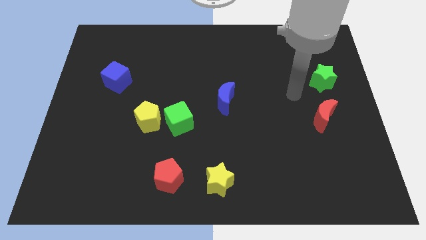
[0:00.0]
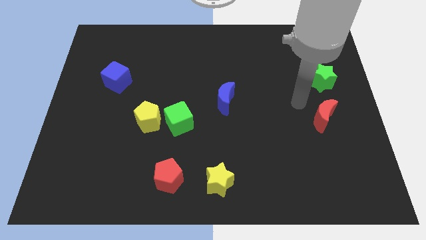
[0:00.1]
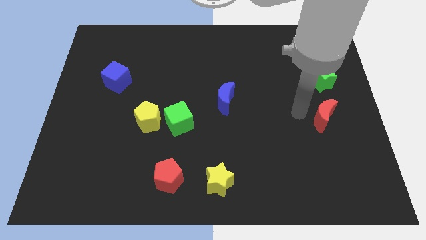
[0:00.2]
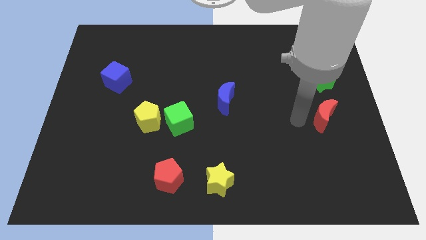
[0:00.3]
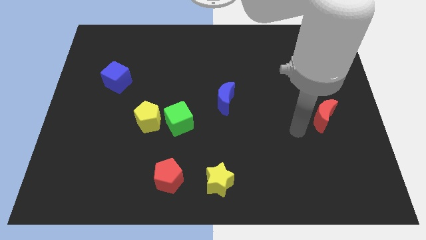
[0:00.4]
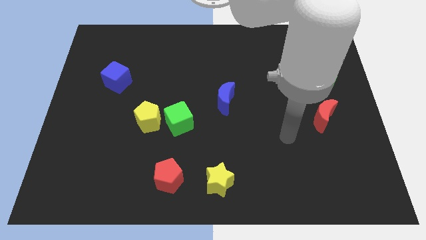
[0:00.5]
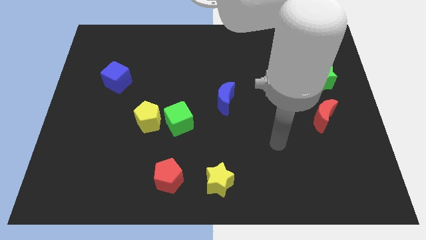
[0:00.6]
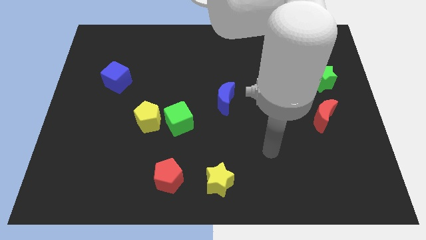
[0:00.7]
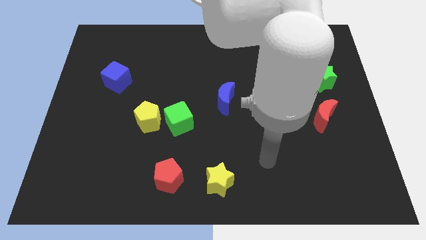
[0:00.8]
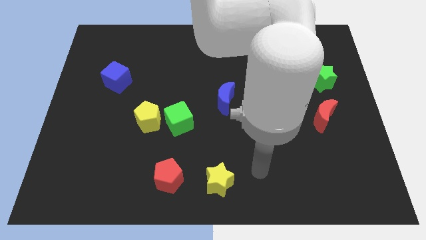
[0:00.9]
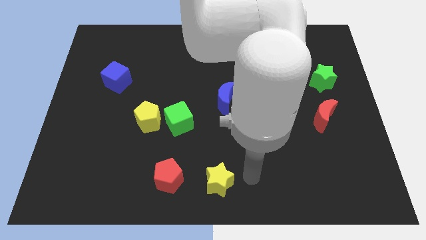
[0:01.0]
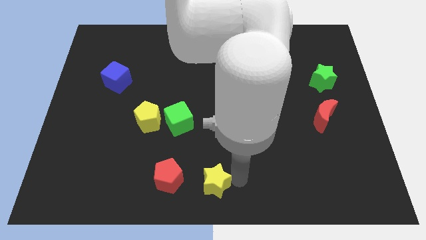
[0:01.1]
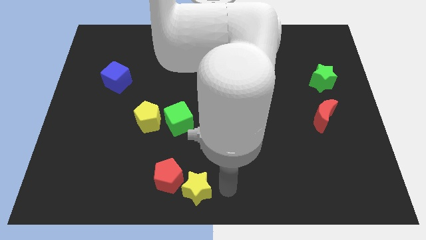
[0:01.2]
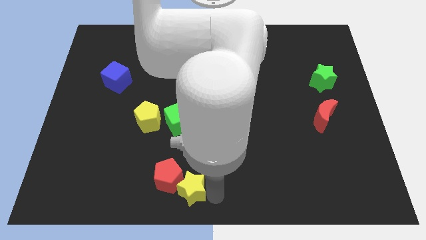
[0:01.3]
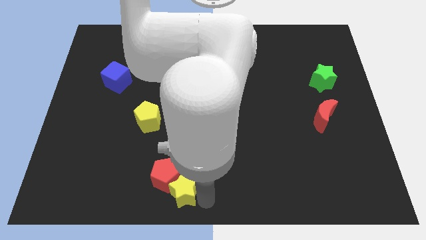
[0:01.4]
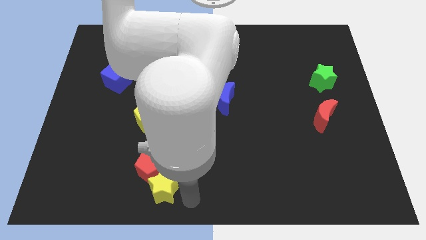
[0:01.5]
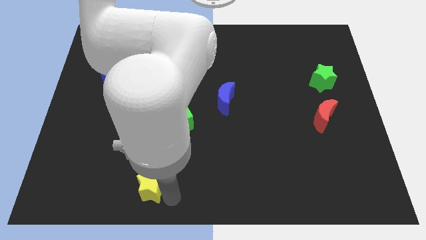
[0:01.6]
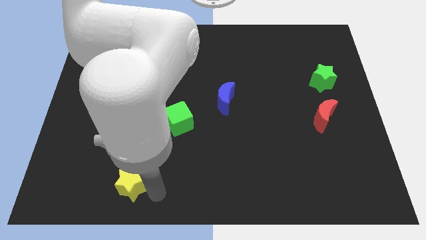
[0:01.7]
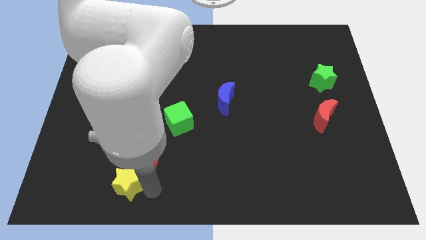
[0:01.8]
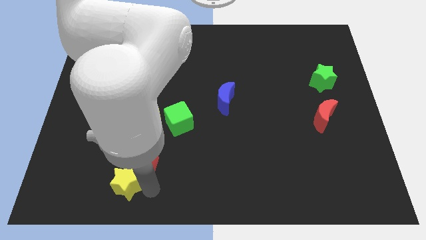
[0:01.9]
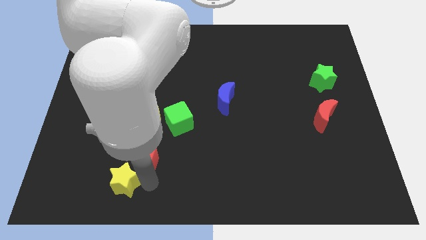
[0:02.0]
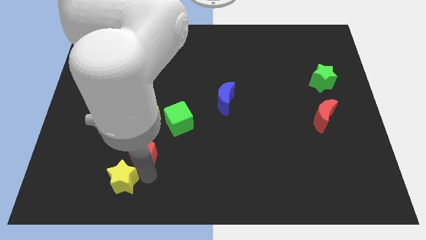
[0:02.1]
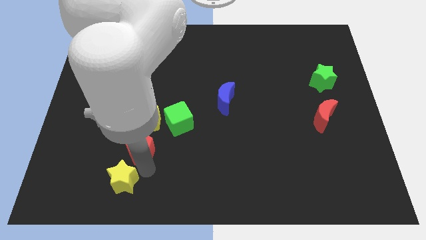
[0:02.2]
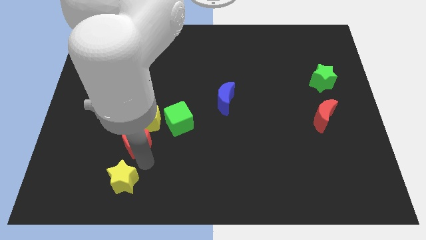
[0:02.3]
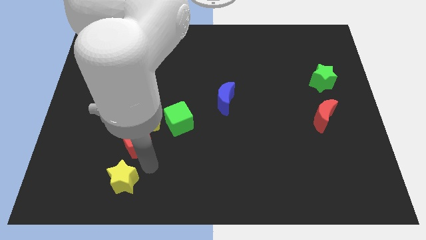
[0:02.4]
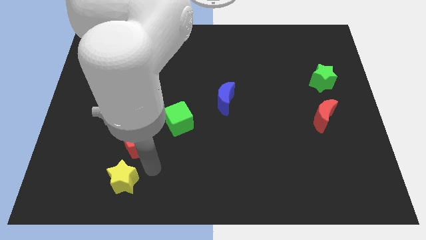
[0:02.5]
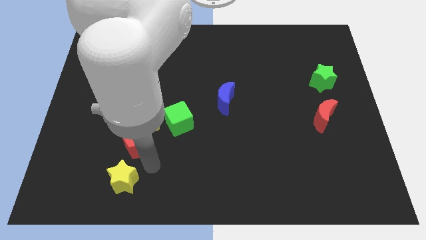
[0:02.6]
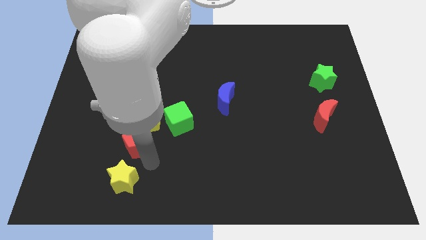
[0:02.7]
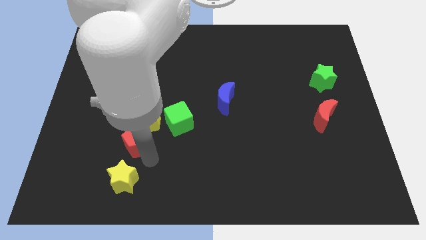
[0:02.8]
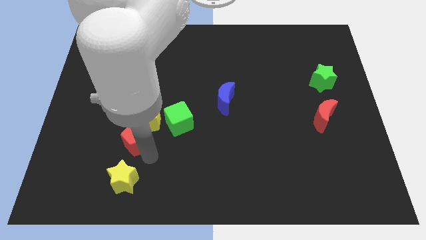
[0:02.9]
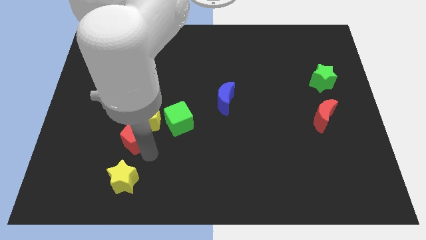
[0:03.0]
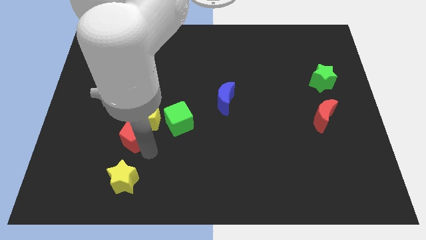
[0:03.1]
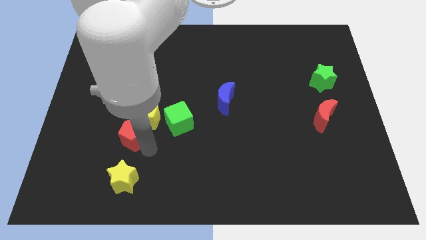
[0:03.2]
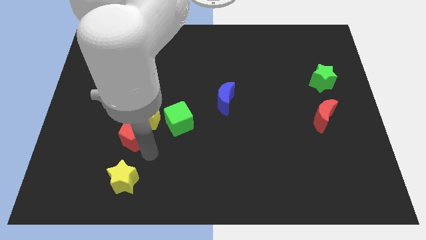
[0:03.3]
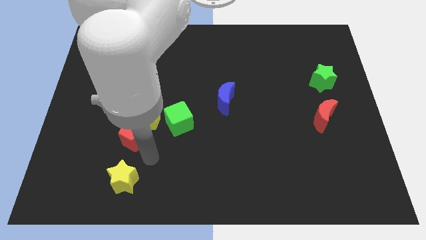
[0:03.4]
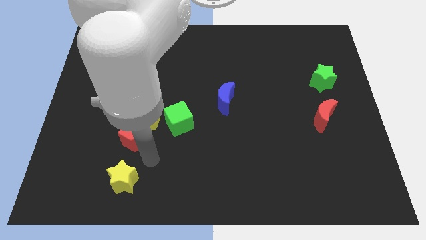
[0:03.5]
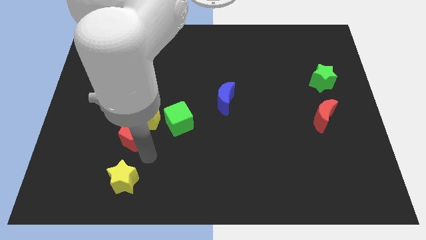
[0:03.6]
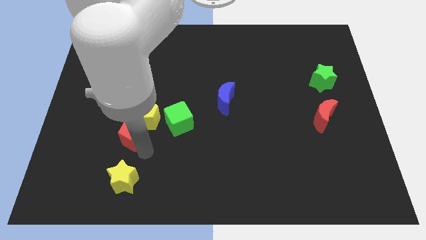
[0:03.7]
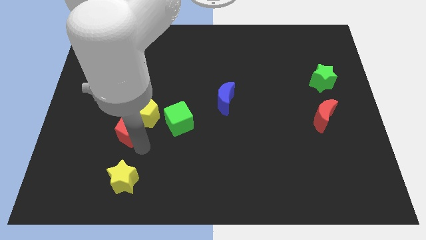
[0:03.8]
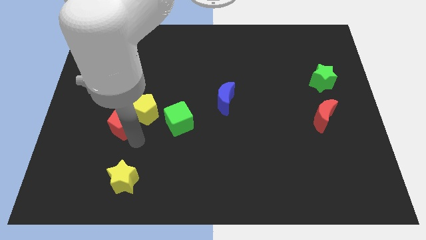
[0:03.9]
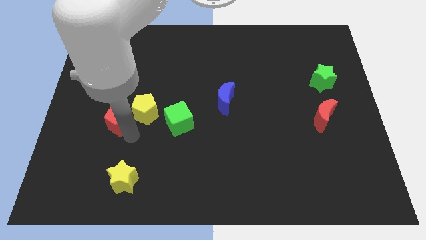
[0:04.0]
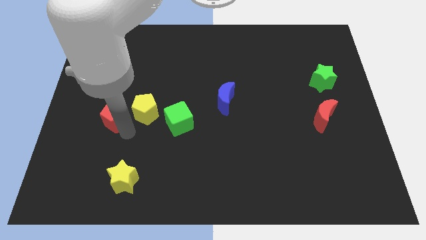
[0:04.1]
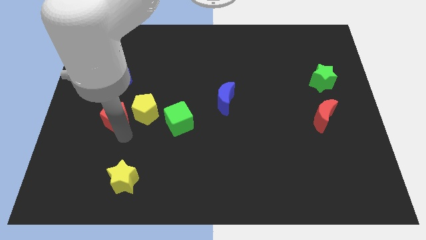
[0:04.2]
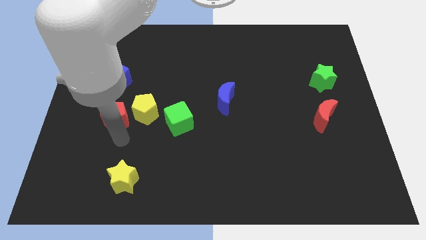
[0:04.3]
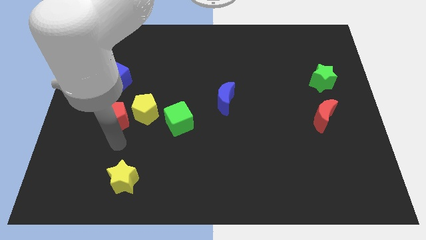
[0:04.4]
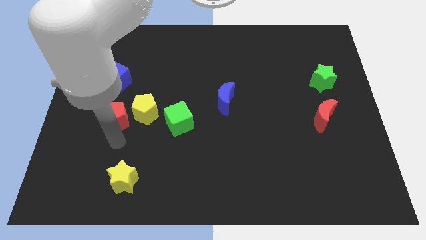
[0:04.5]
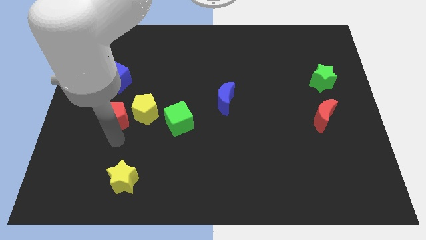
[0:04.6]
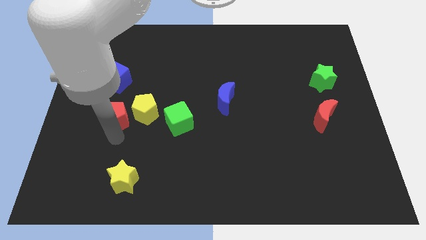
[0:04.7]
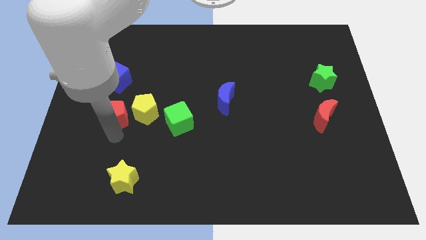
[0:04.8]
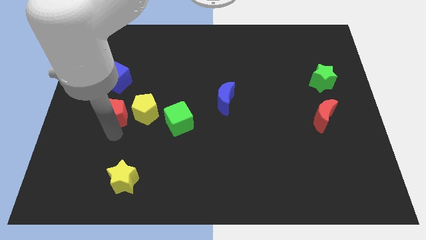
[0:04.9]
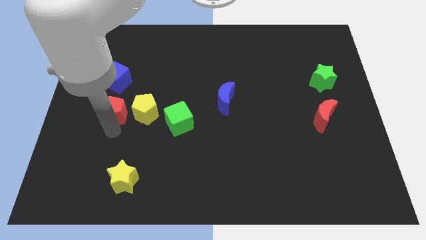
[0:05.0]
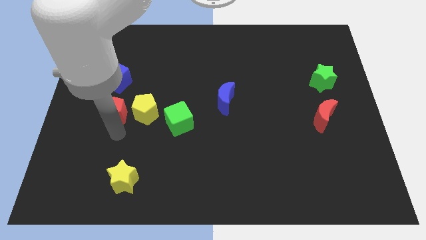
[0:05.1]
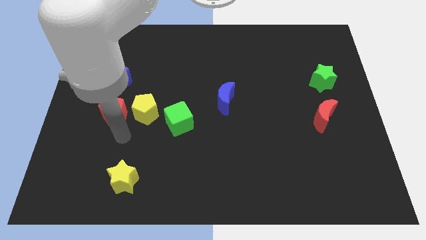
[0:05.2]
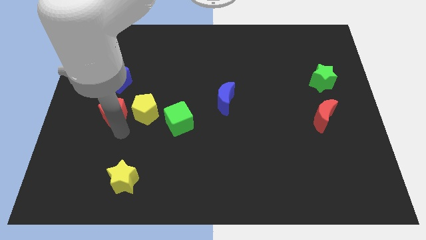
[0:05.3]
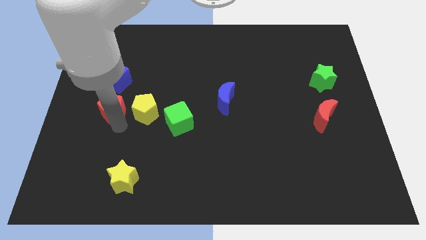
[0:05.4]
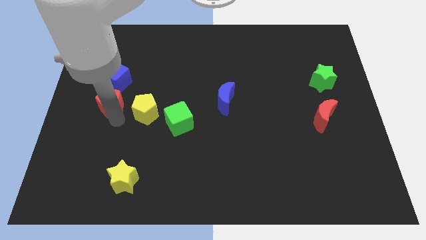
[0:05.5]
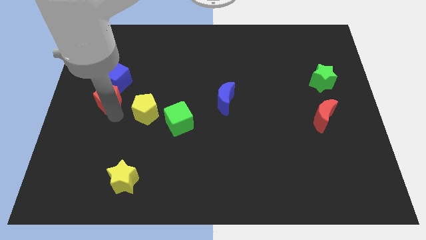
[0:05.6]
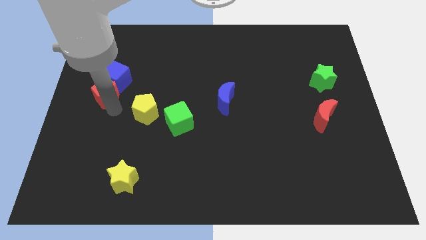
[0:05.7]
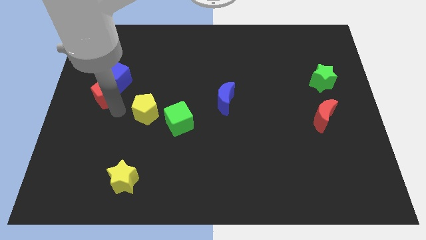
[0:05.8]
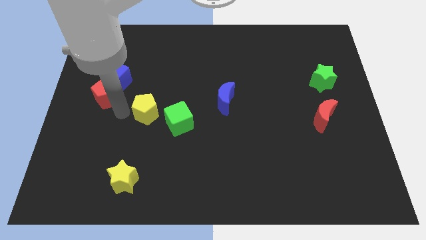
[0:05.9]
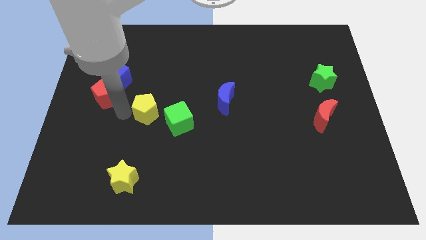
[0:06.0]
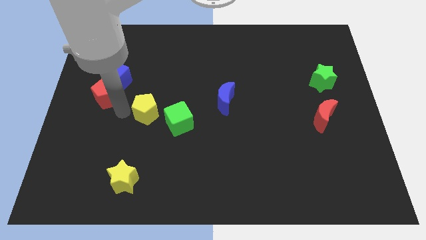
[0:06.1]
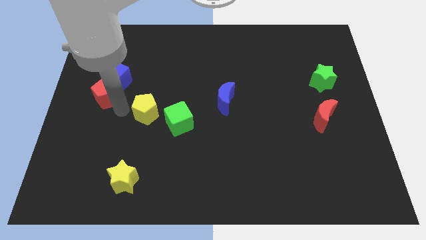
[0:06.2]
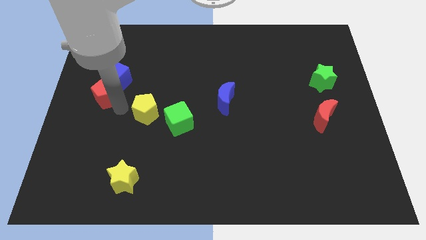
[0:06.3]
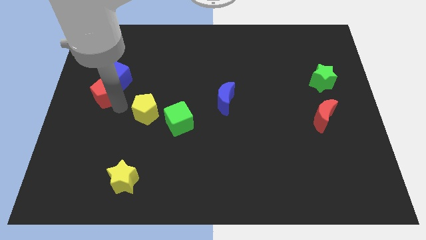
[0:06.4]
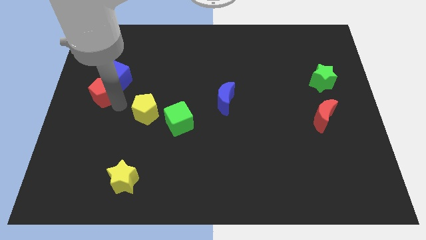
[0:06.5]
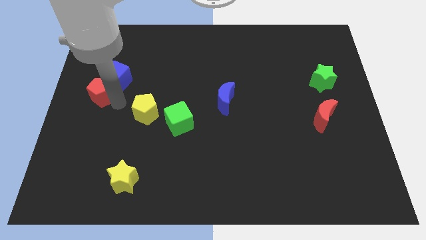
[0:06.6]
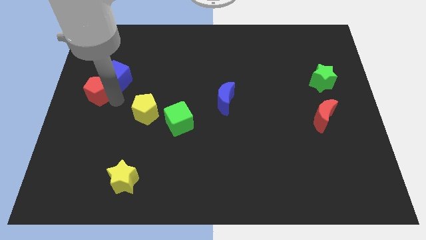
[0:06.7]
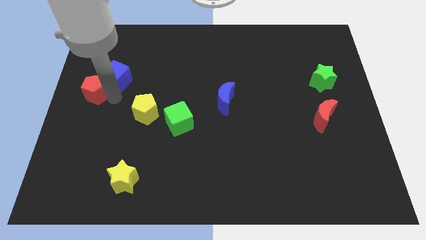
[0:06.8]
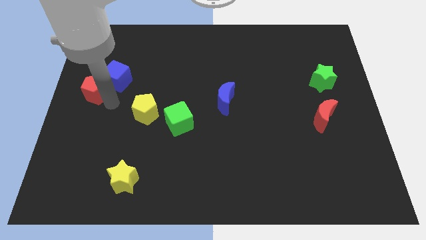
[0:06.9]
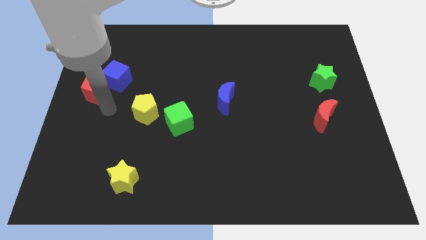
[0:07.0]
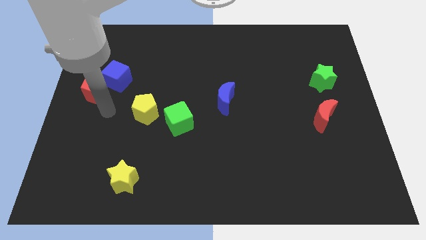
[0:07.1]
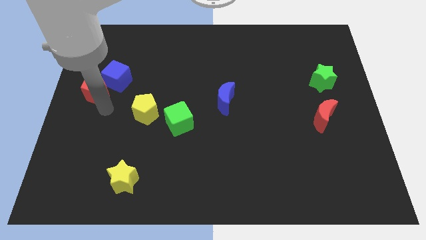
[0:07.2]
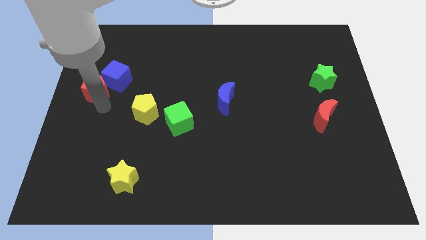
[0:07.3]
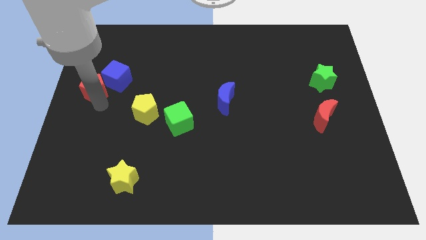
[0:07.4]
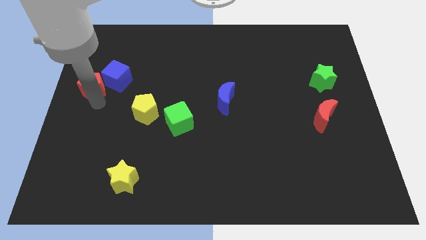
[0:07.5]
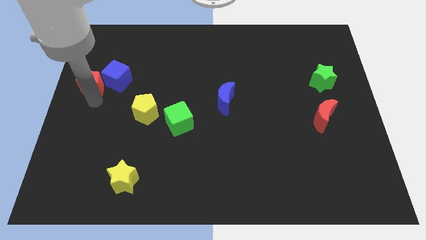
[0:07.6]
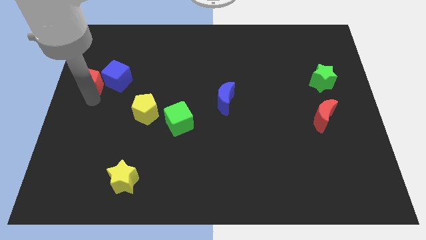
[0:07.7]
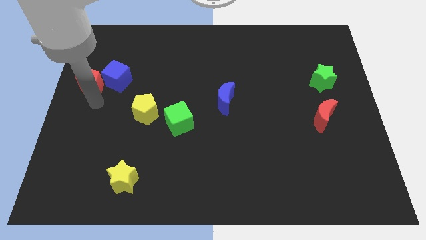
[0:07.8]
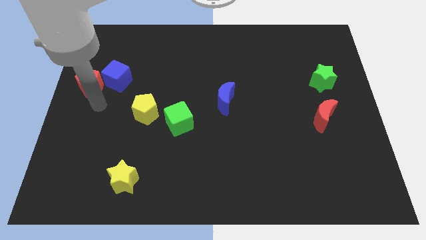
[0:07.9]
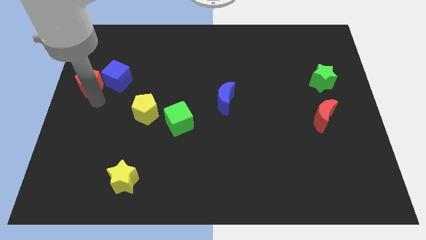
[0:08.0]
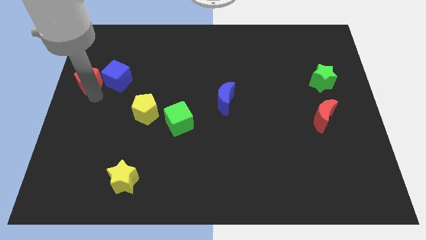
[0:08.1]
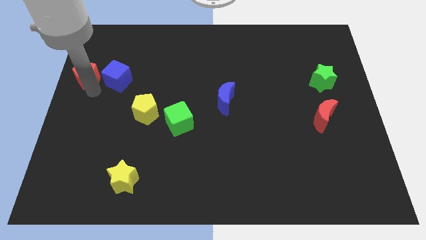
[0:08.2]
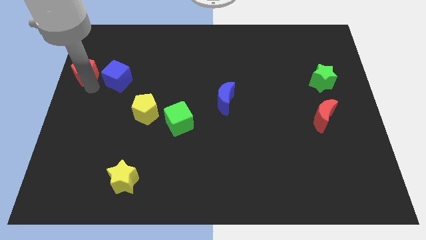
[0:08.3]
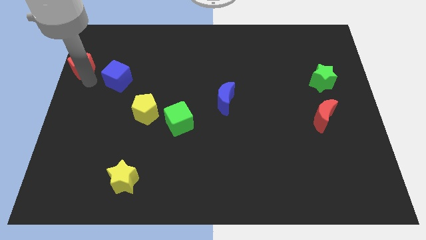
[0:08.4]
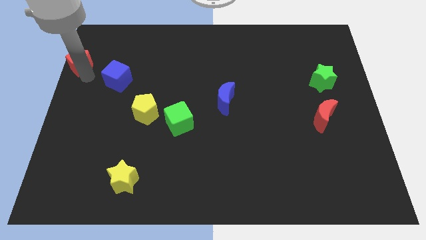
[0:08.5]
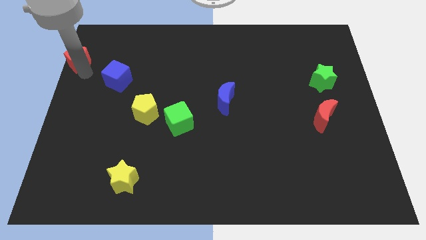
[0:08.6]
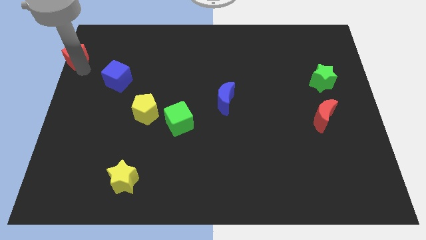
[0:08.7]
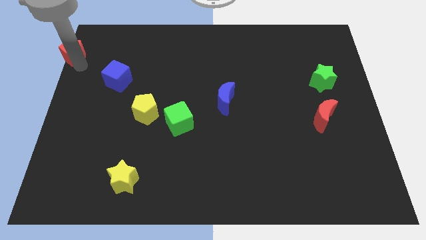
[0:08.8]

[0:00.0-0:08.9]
put the red pentagon to the upper left corner
